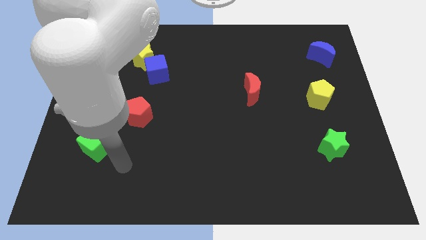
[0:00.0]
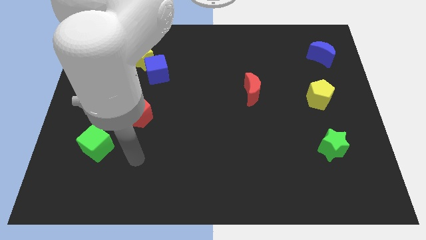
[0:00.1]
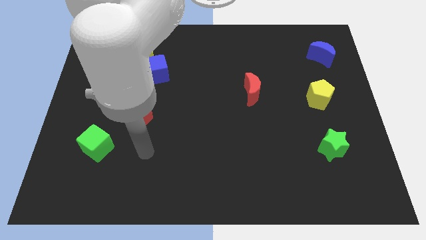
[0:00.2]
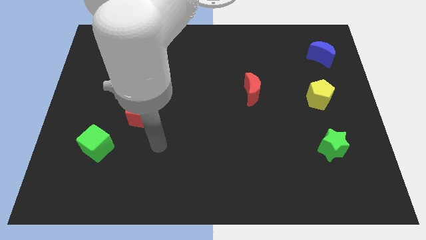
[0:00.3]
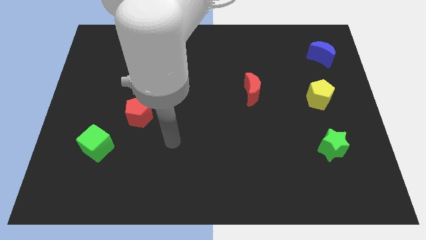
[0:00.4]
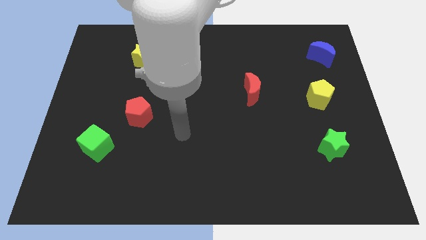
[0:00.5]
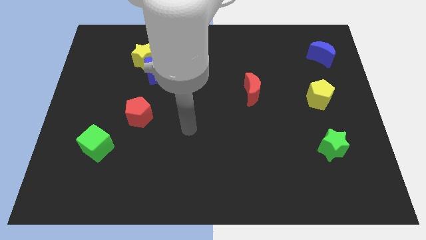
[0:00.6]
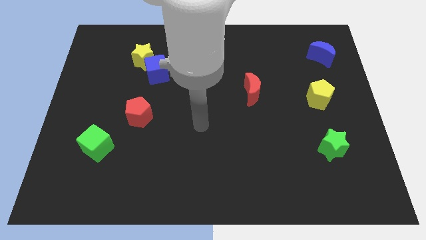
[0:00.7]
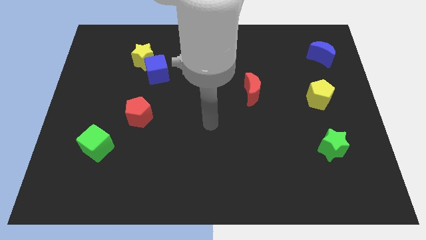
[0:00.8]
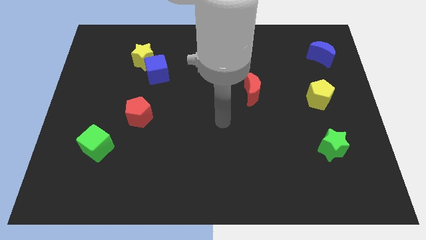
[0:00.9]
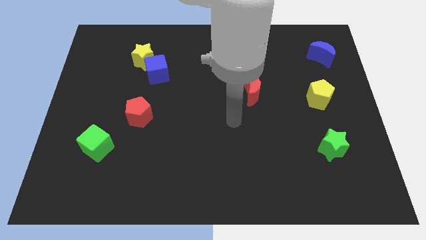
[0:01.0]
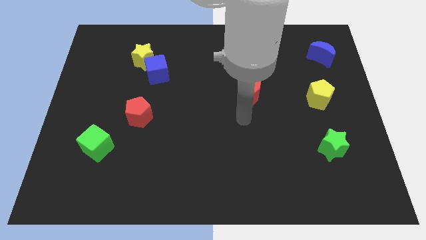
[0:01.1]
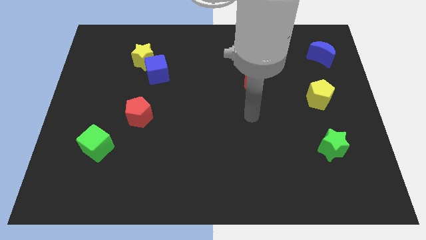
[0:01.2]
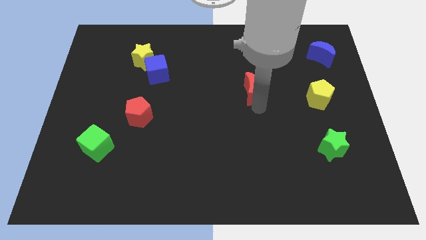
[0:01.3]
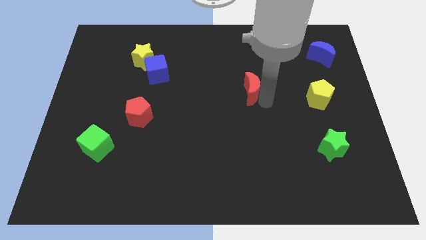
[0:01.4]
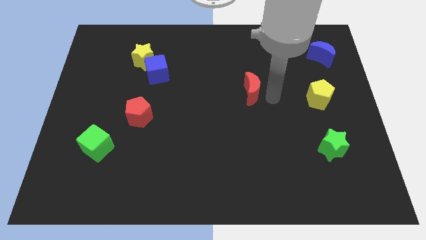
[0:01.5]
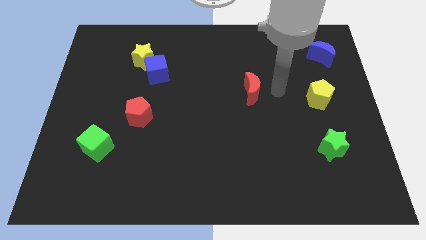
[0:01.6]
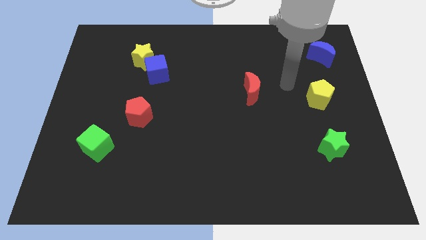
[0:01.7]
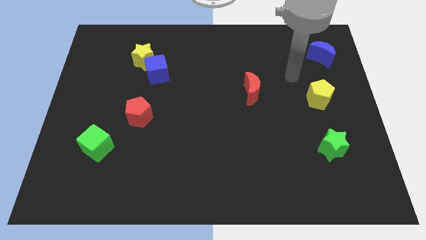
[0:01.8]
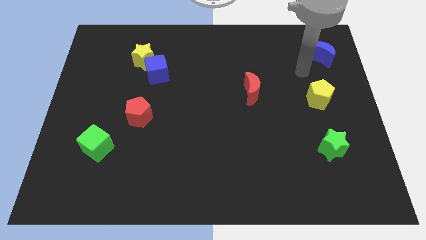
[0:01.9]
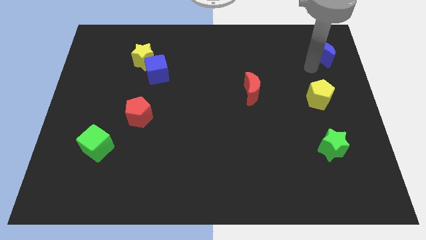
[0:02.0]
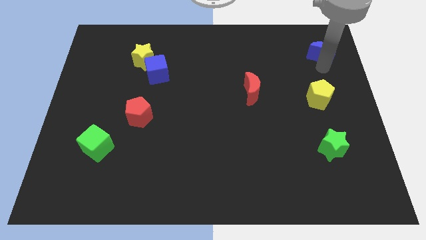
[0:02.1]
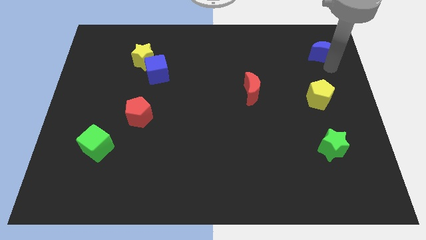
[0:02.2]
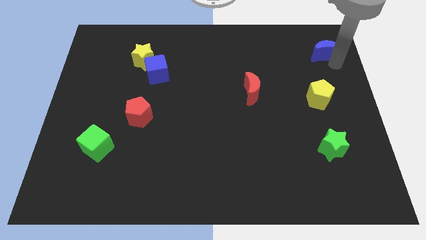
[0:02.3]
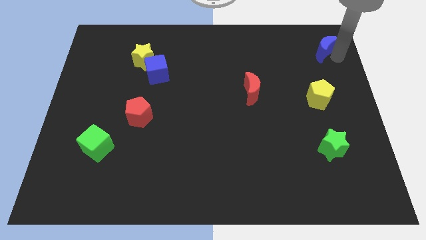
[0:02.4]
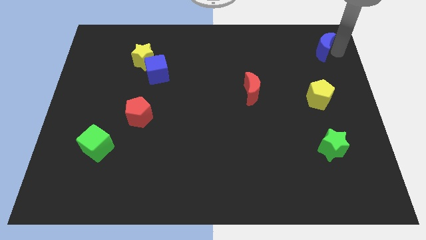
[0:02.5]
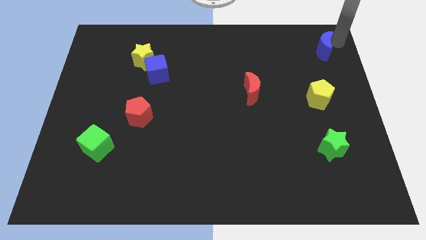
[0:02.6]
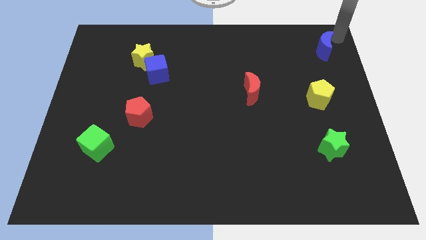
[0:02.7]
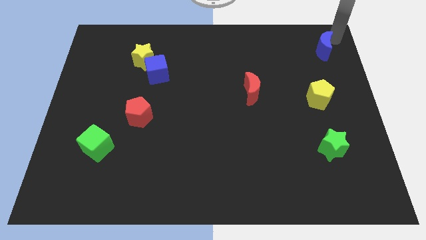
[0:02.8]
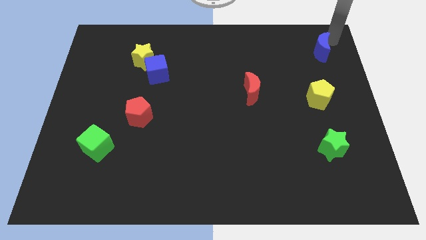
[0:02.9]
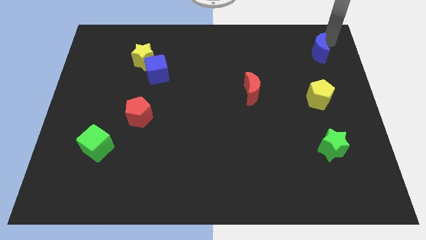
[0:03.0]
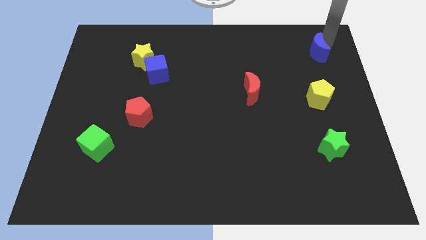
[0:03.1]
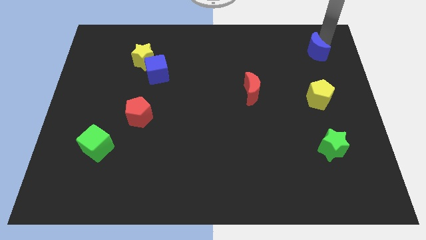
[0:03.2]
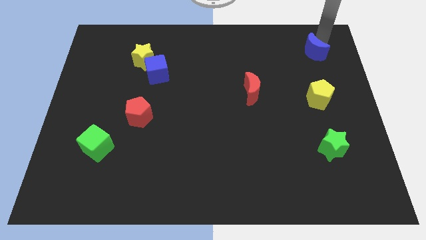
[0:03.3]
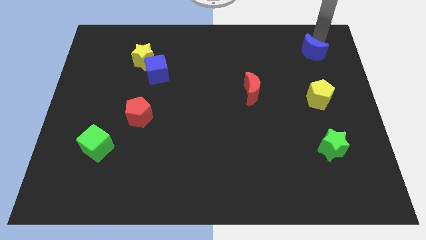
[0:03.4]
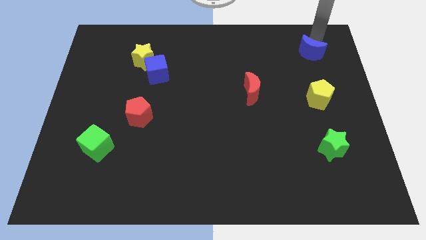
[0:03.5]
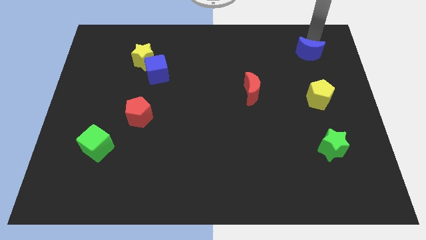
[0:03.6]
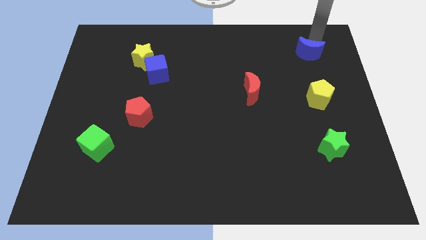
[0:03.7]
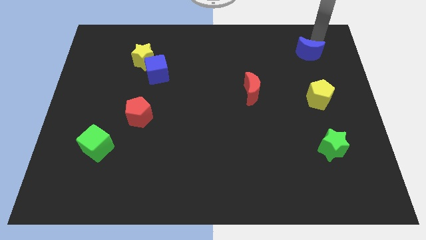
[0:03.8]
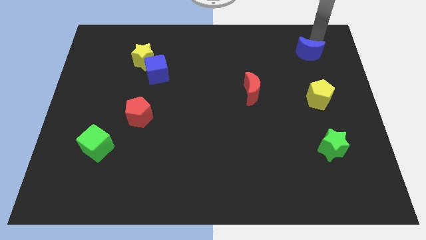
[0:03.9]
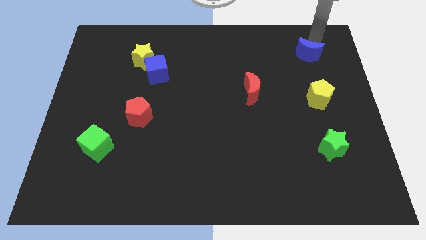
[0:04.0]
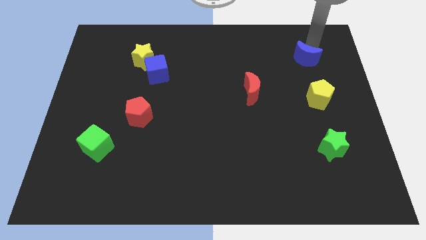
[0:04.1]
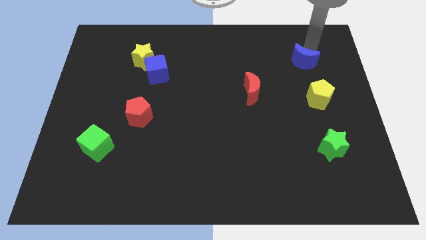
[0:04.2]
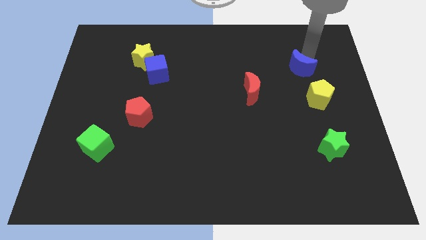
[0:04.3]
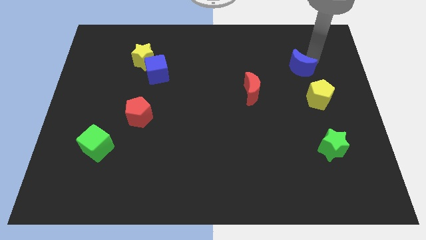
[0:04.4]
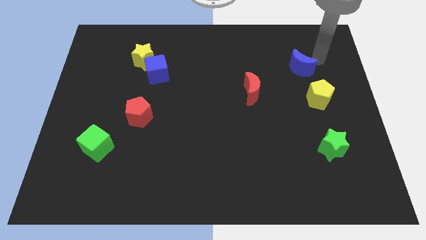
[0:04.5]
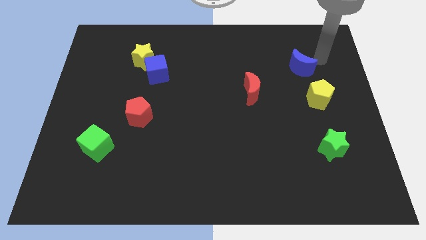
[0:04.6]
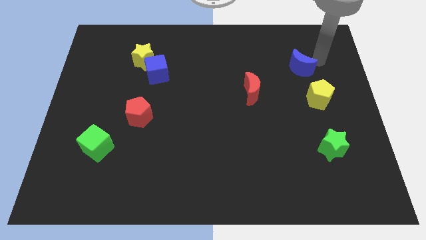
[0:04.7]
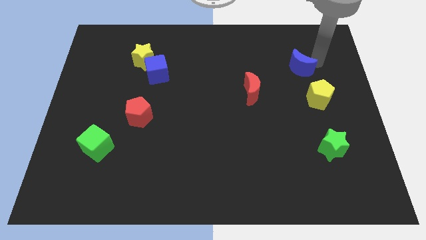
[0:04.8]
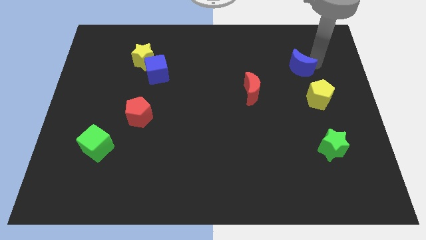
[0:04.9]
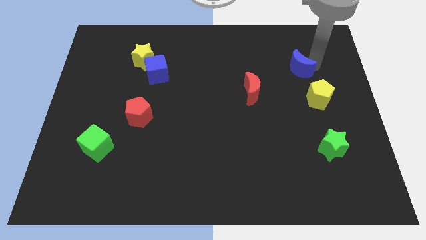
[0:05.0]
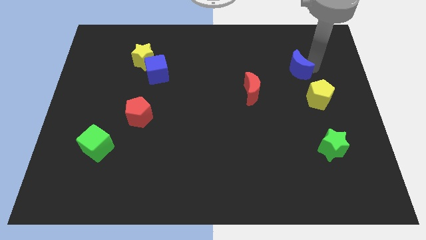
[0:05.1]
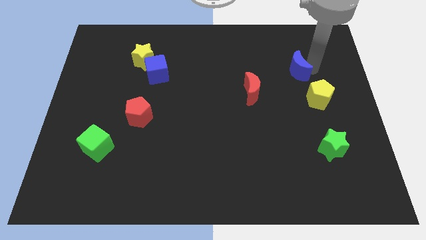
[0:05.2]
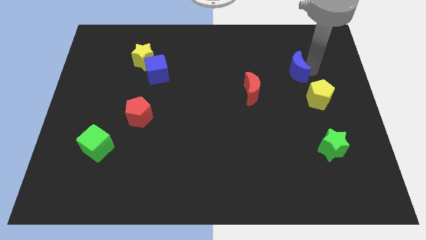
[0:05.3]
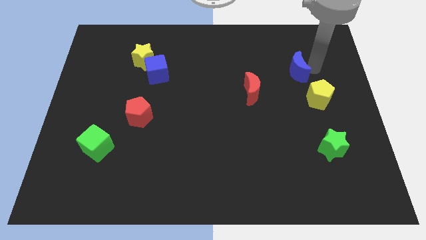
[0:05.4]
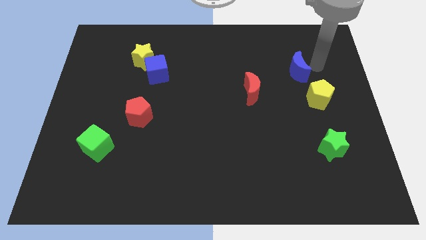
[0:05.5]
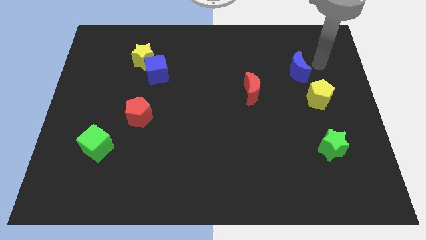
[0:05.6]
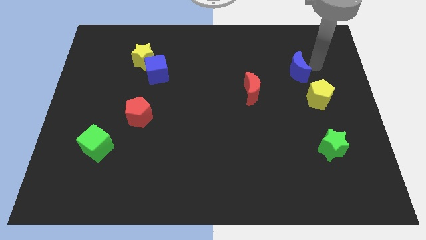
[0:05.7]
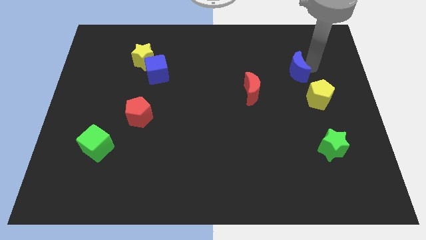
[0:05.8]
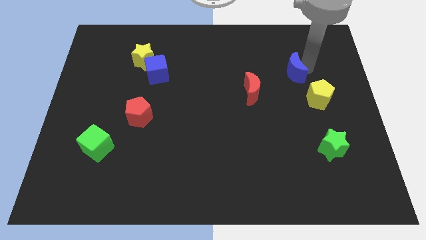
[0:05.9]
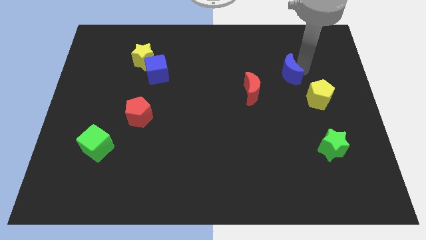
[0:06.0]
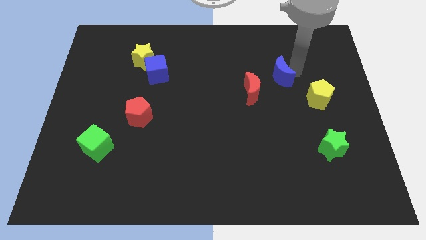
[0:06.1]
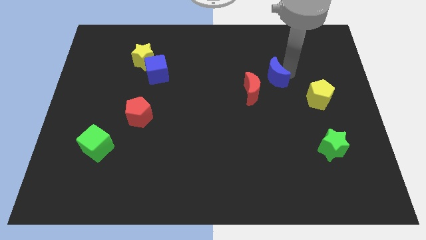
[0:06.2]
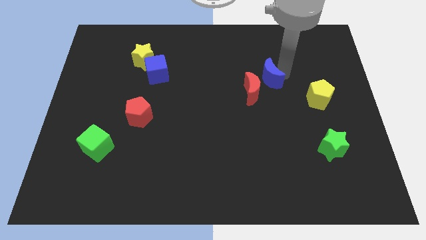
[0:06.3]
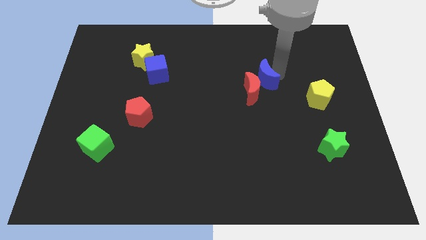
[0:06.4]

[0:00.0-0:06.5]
slide the blue moon close to the red moon
